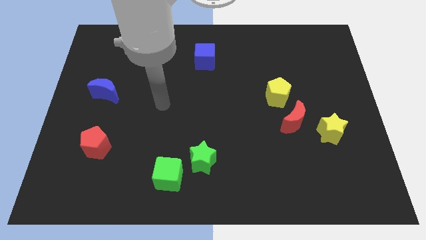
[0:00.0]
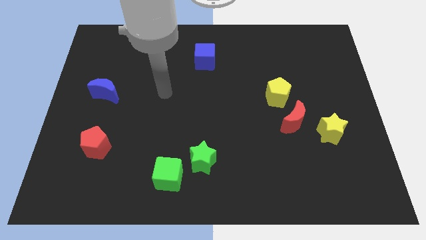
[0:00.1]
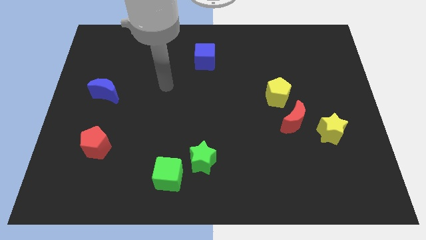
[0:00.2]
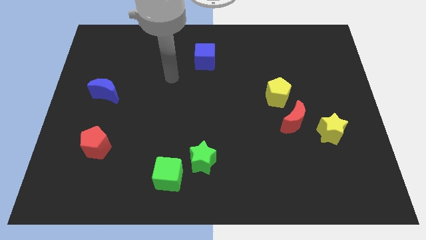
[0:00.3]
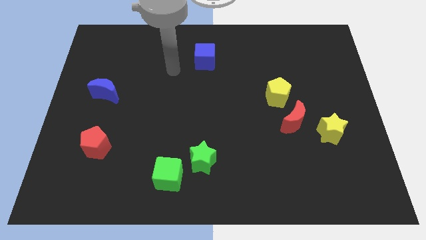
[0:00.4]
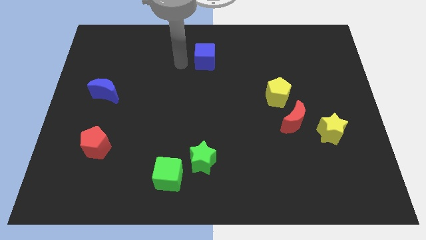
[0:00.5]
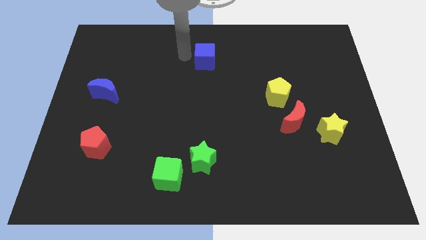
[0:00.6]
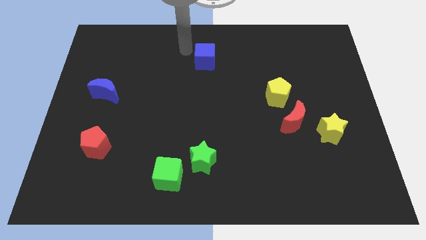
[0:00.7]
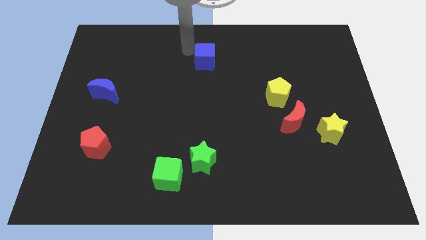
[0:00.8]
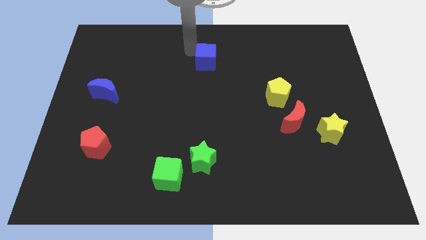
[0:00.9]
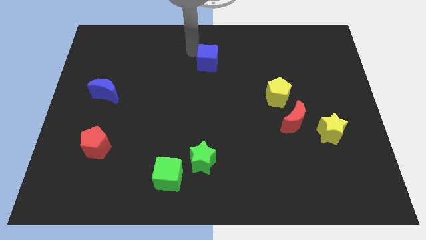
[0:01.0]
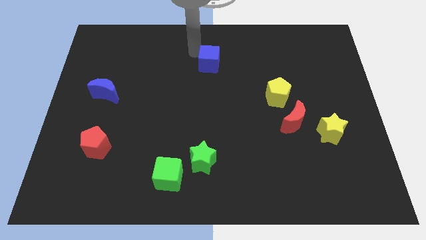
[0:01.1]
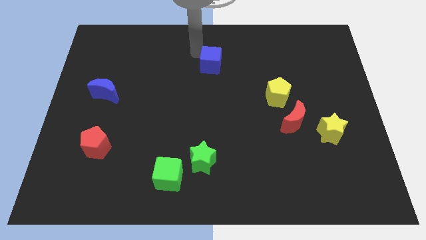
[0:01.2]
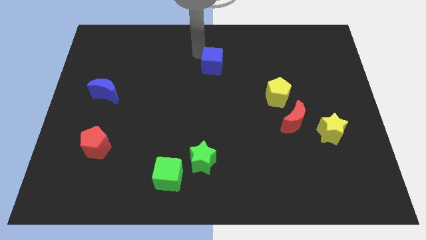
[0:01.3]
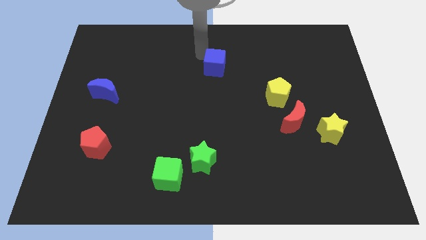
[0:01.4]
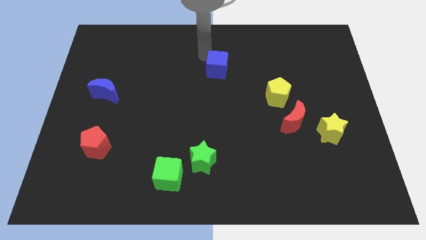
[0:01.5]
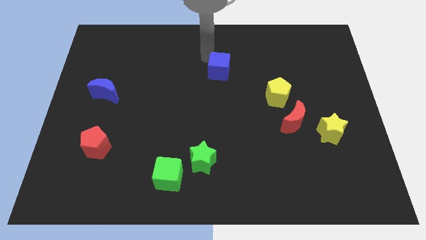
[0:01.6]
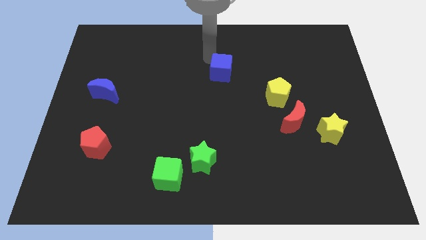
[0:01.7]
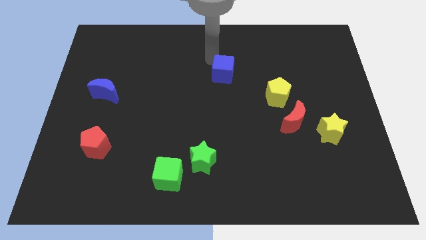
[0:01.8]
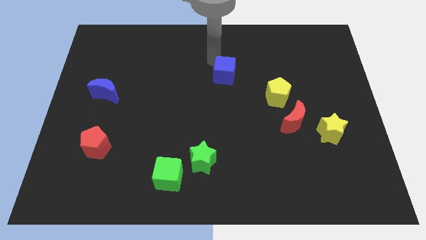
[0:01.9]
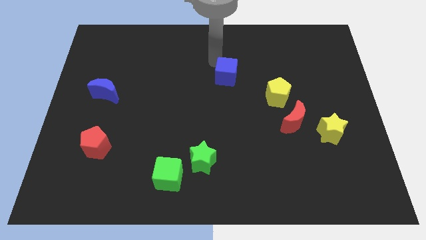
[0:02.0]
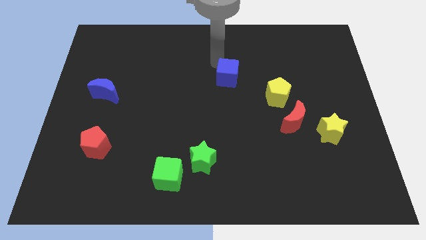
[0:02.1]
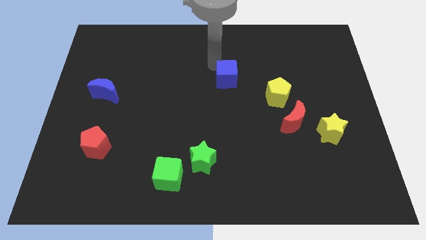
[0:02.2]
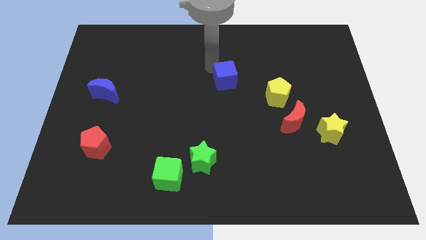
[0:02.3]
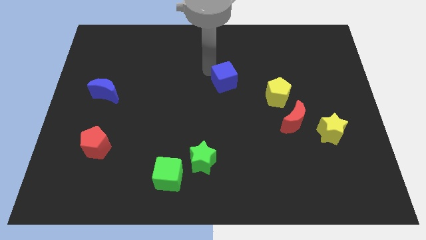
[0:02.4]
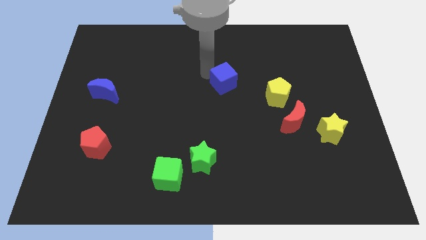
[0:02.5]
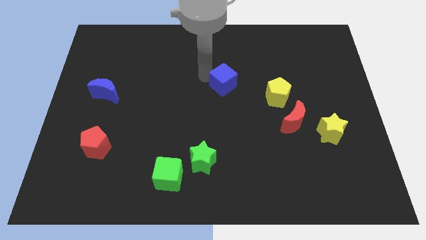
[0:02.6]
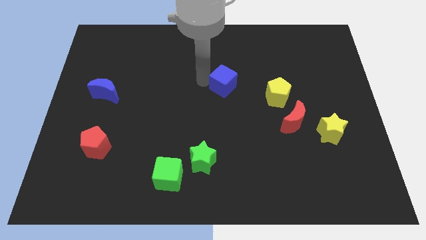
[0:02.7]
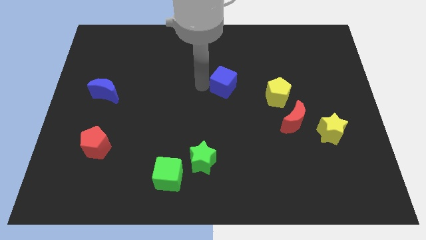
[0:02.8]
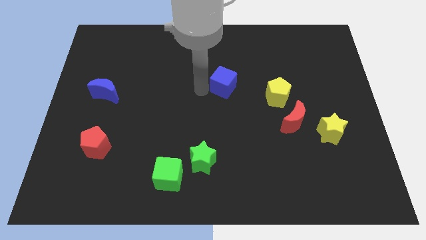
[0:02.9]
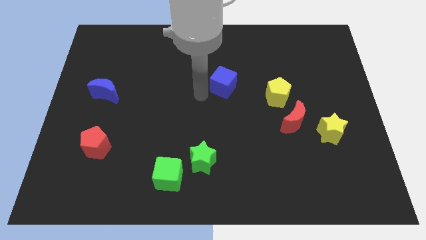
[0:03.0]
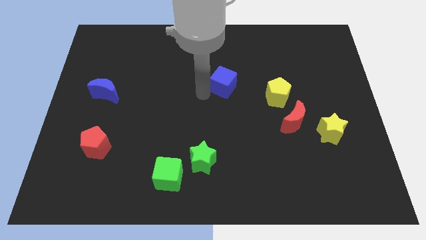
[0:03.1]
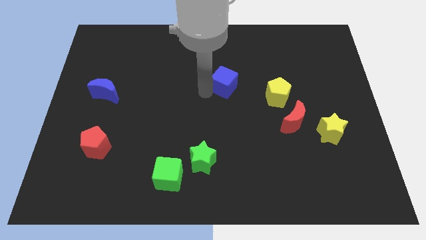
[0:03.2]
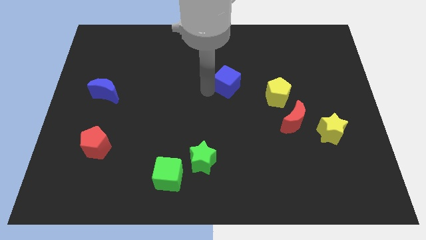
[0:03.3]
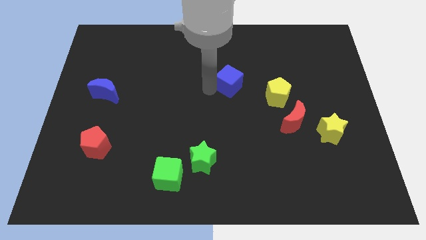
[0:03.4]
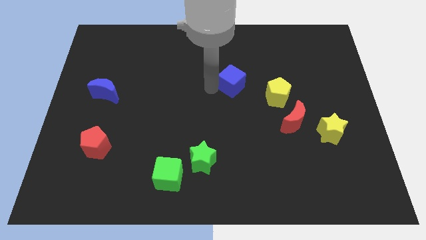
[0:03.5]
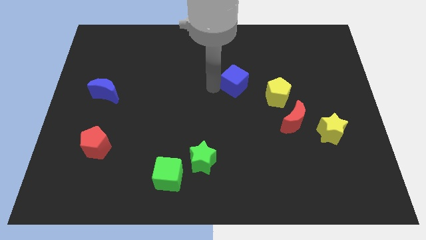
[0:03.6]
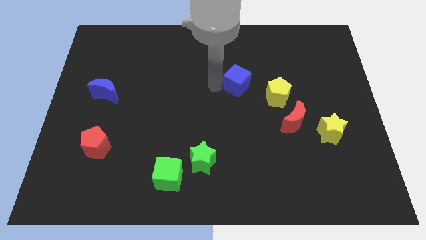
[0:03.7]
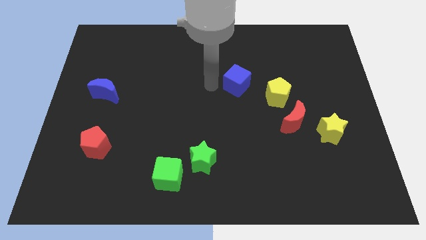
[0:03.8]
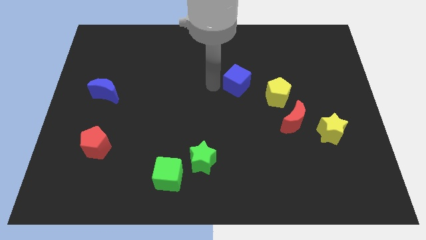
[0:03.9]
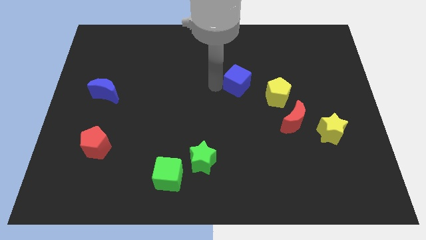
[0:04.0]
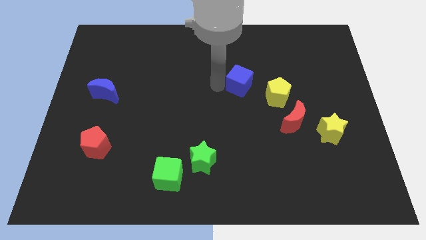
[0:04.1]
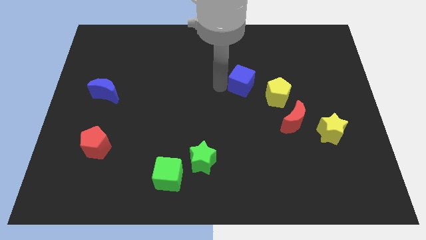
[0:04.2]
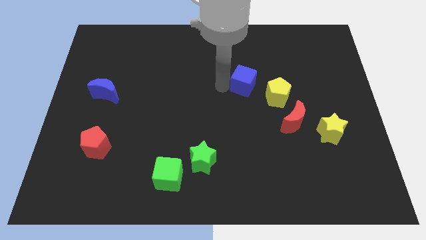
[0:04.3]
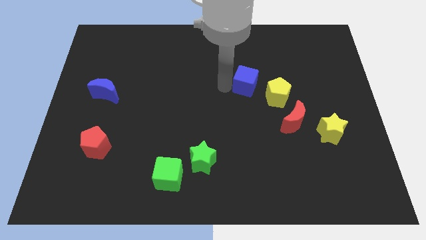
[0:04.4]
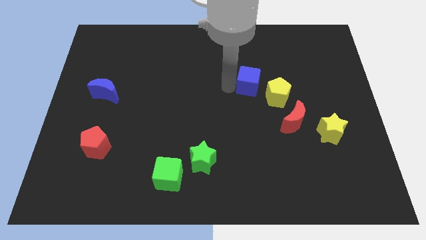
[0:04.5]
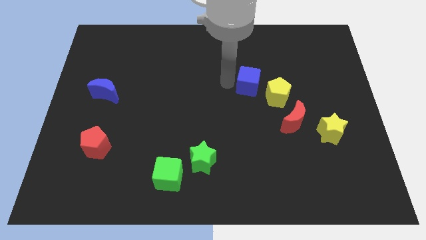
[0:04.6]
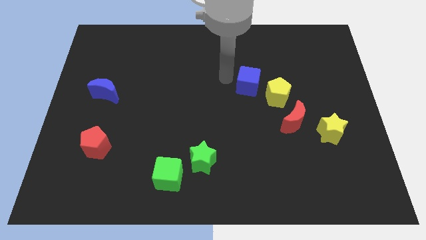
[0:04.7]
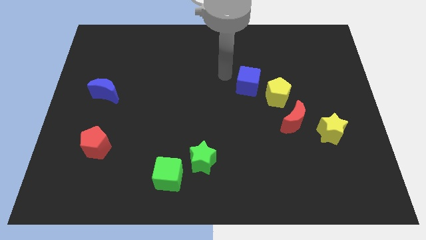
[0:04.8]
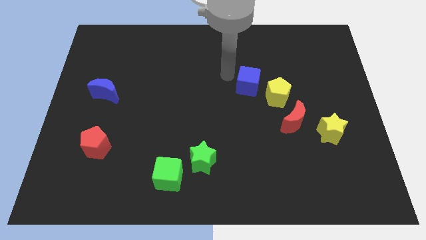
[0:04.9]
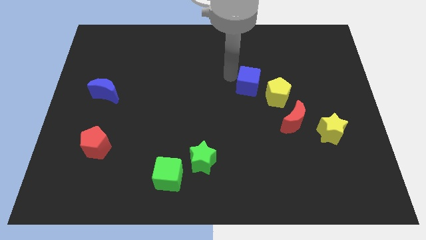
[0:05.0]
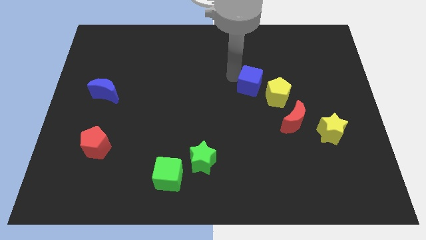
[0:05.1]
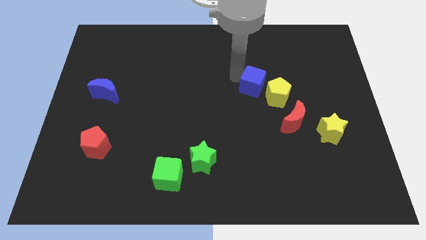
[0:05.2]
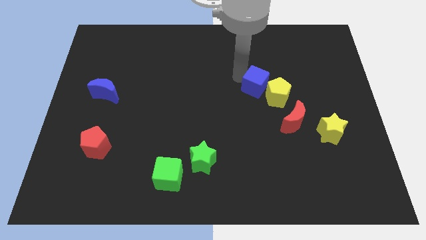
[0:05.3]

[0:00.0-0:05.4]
move the blue cube next to the yellow pentagon

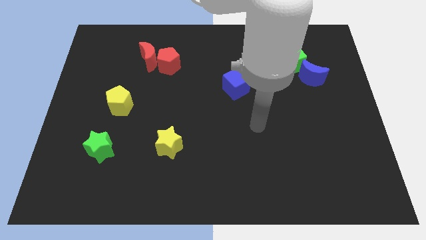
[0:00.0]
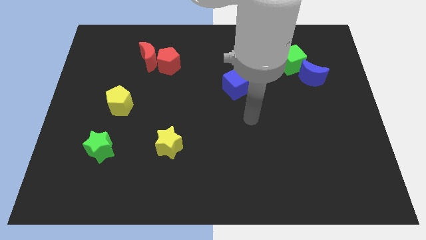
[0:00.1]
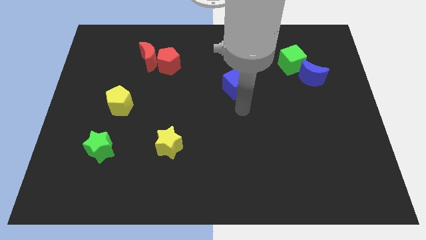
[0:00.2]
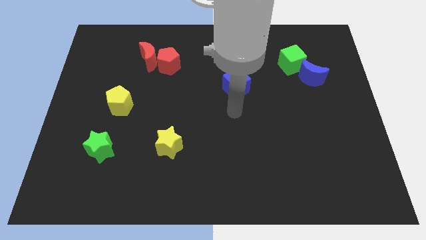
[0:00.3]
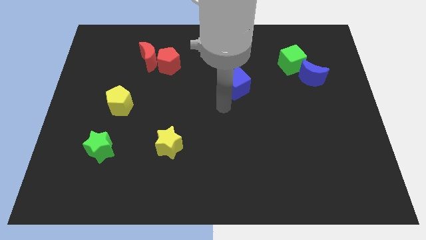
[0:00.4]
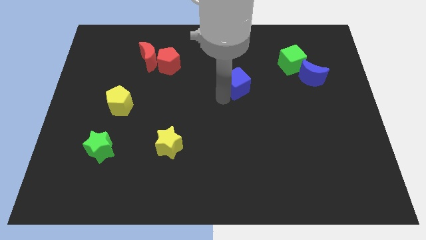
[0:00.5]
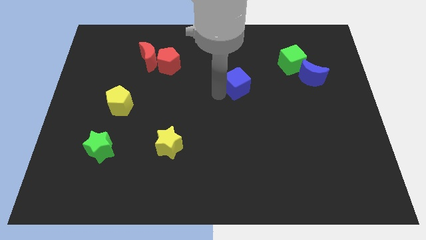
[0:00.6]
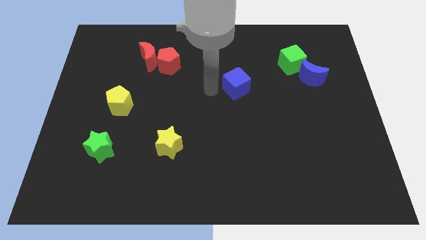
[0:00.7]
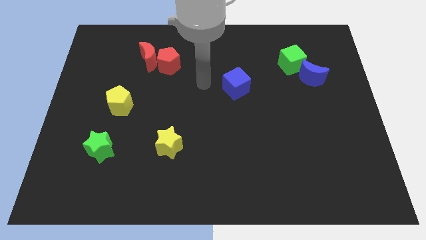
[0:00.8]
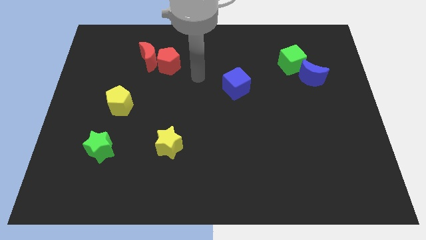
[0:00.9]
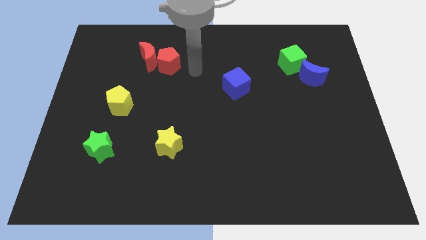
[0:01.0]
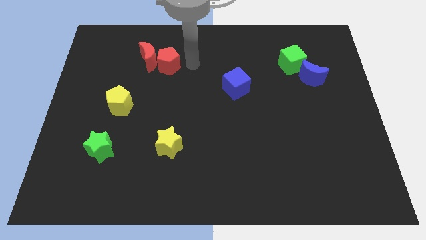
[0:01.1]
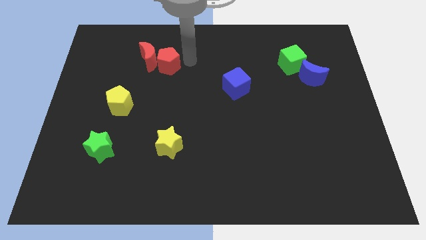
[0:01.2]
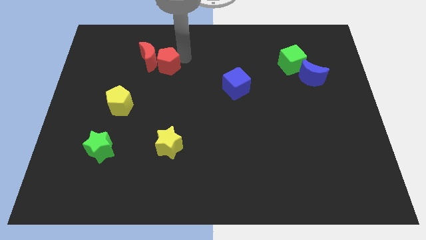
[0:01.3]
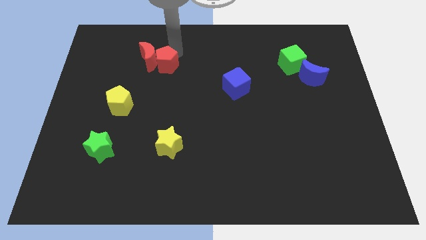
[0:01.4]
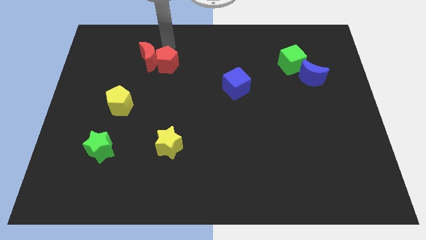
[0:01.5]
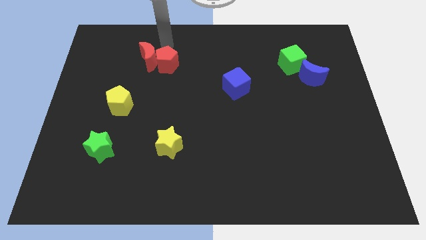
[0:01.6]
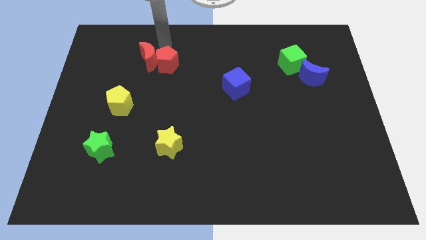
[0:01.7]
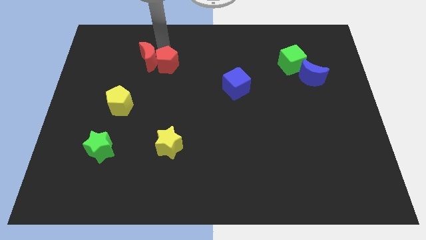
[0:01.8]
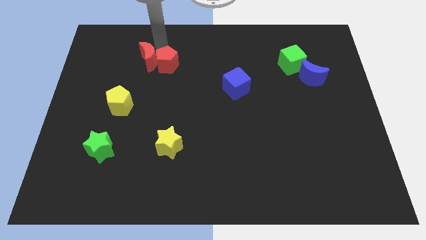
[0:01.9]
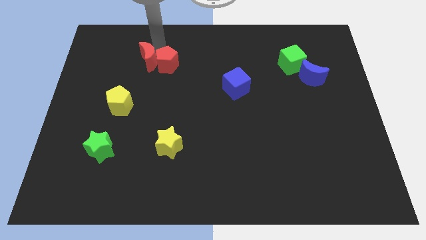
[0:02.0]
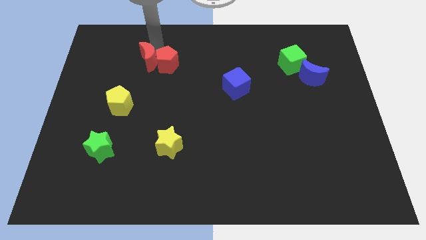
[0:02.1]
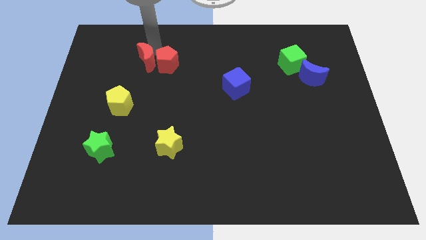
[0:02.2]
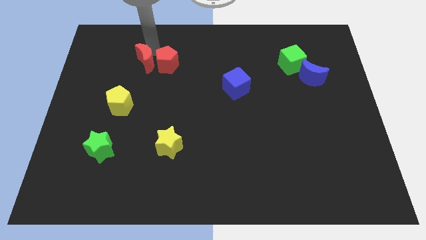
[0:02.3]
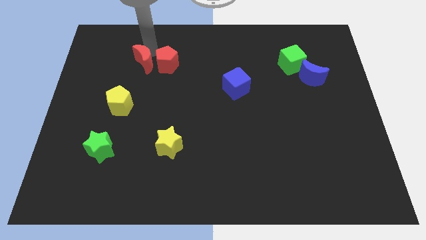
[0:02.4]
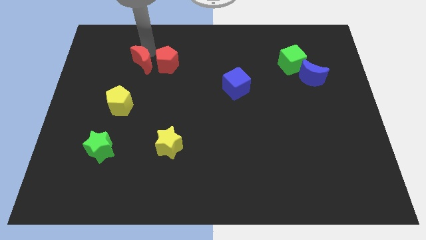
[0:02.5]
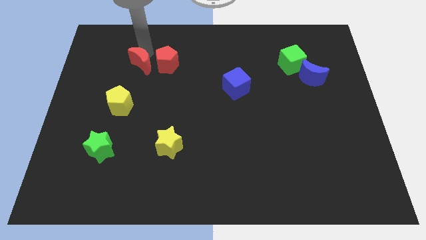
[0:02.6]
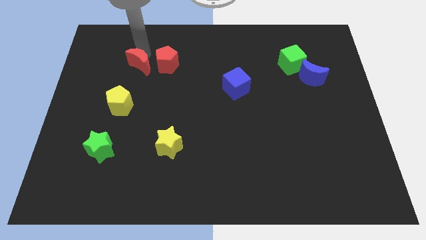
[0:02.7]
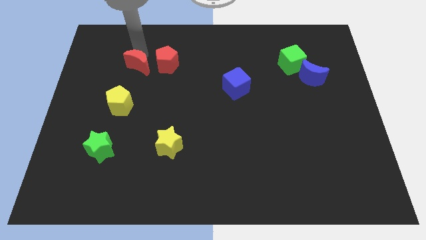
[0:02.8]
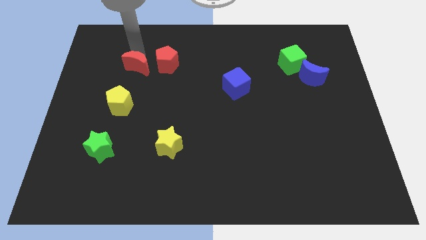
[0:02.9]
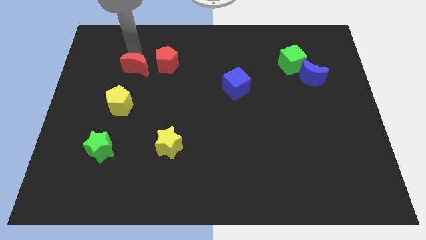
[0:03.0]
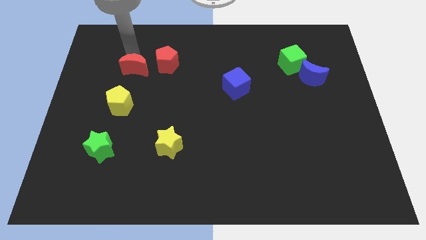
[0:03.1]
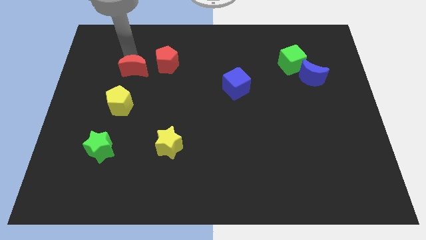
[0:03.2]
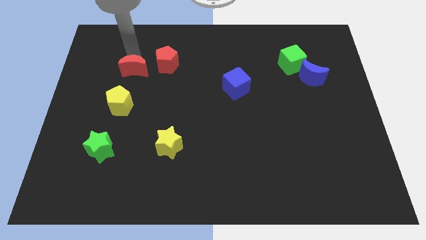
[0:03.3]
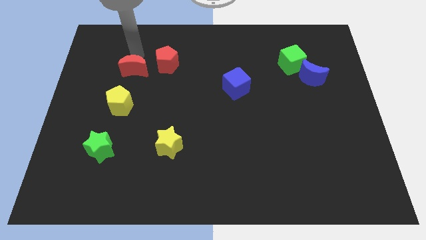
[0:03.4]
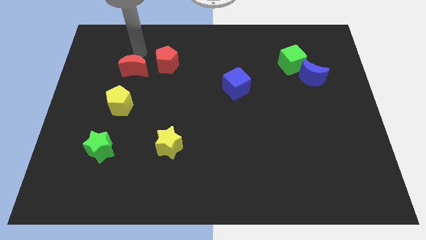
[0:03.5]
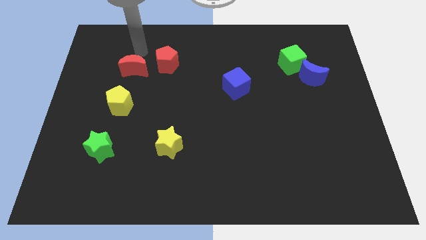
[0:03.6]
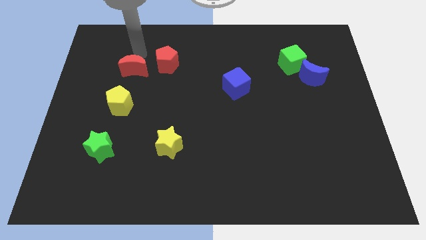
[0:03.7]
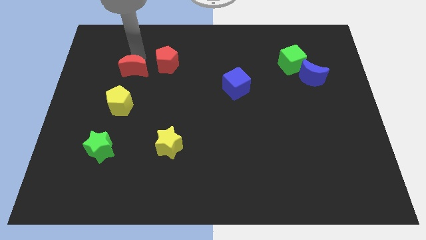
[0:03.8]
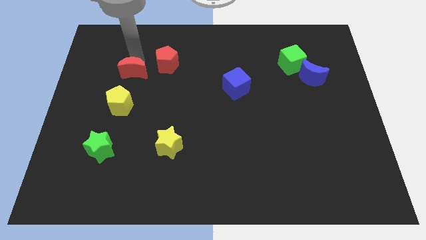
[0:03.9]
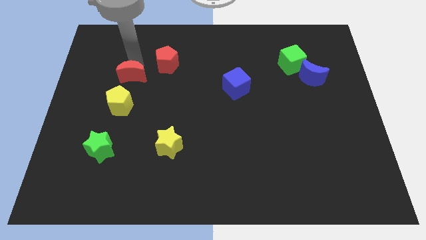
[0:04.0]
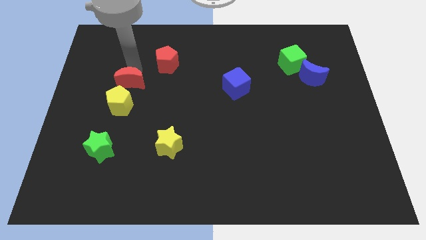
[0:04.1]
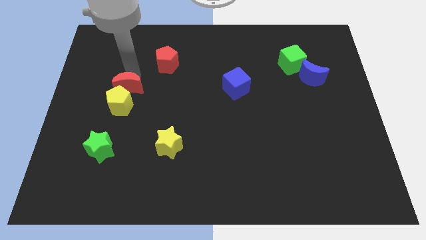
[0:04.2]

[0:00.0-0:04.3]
put the red moon towards the yellow pentagon
